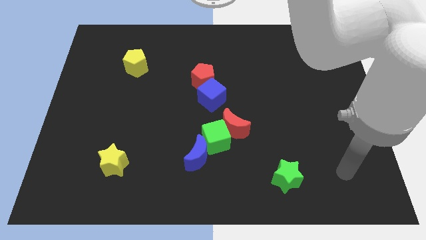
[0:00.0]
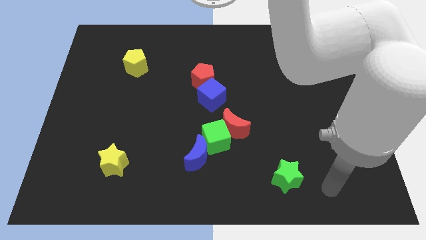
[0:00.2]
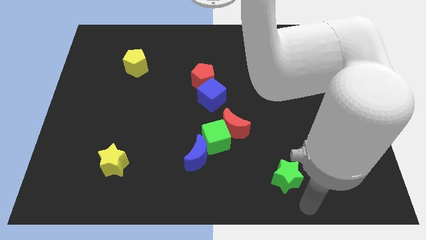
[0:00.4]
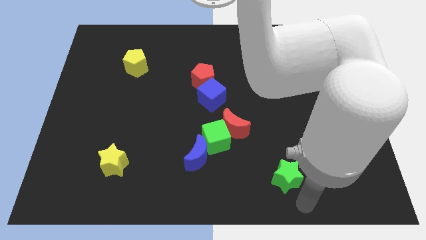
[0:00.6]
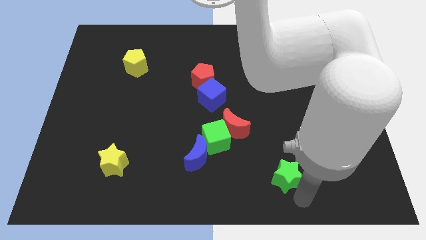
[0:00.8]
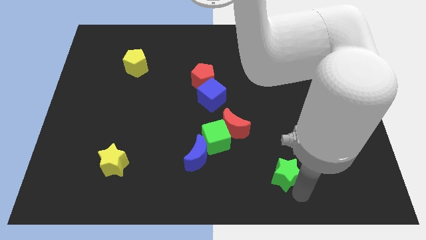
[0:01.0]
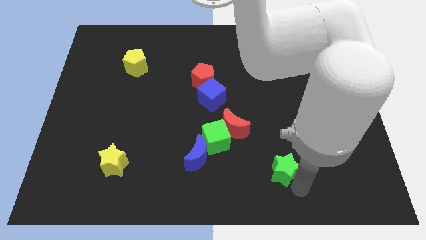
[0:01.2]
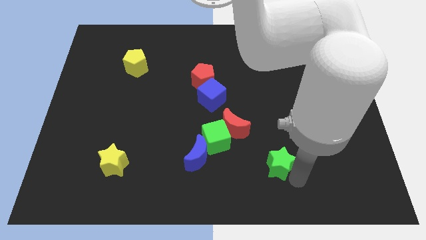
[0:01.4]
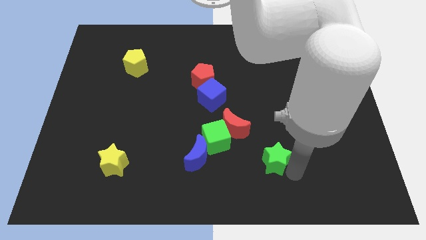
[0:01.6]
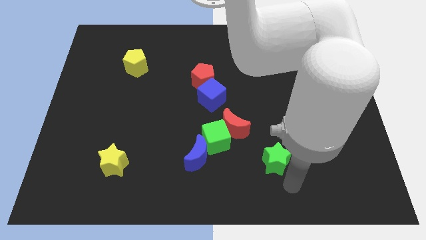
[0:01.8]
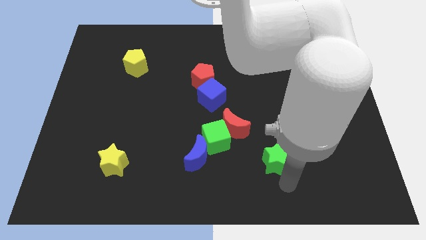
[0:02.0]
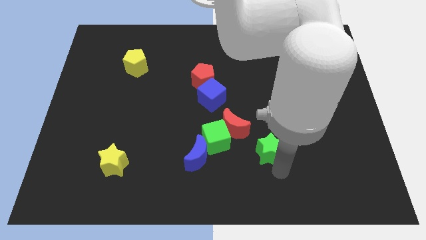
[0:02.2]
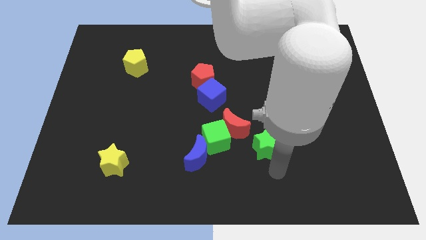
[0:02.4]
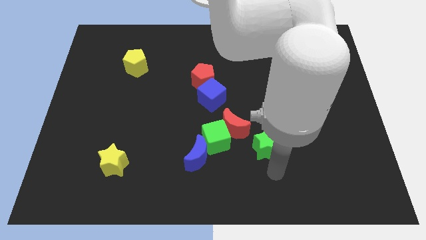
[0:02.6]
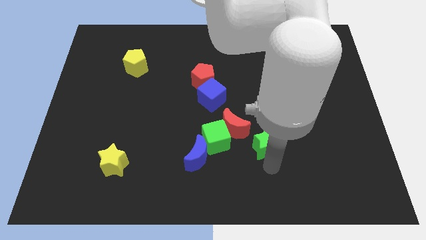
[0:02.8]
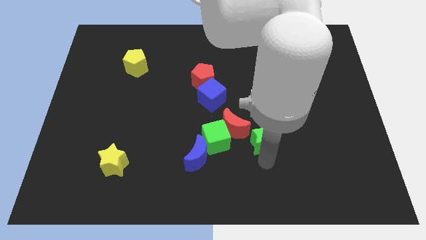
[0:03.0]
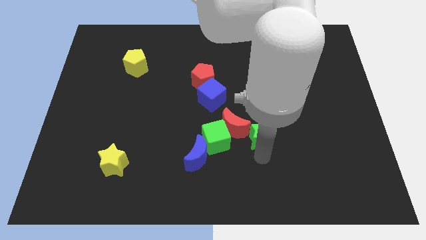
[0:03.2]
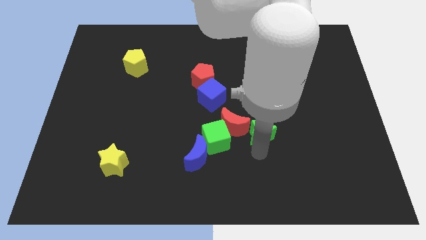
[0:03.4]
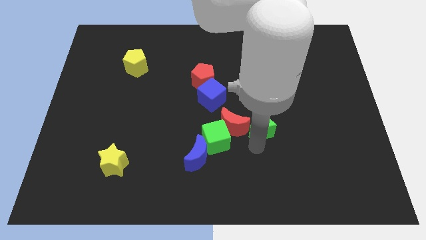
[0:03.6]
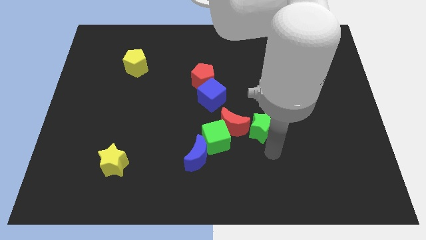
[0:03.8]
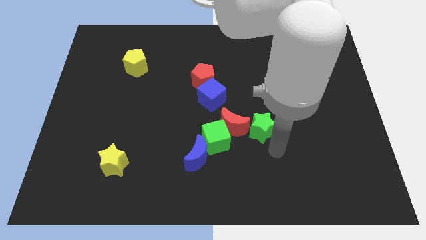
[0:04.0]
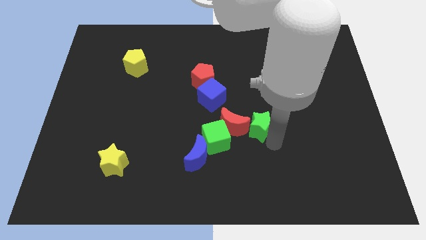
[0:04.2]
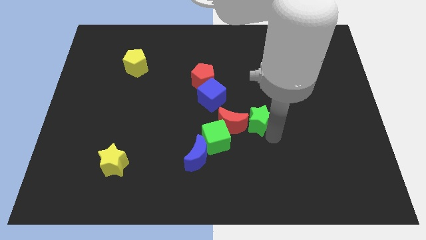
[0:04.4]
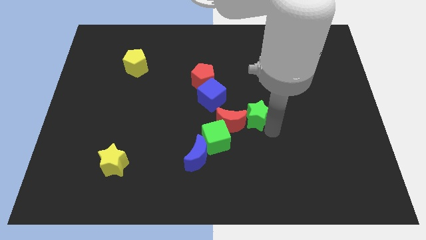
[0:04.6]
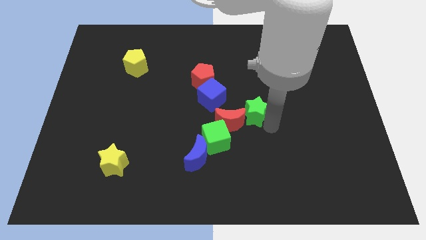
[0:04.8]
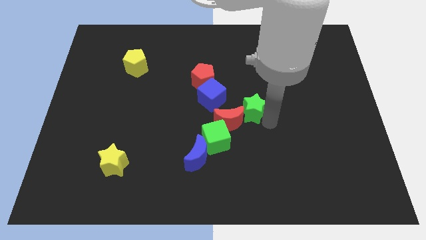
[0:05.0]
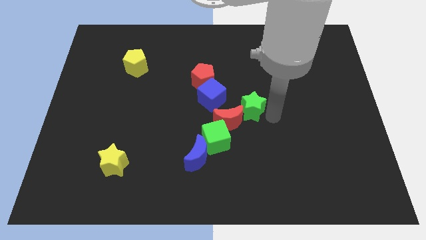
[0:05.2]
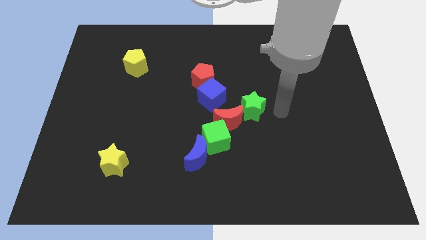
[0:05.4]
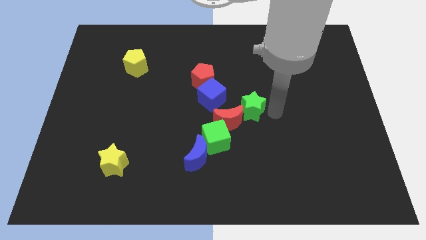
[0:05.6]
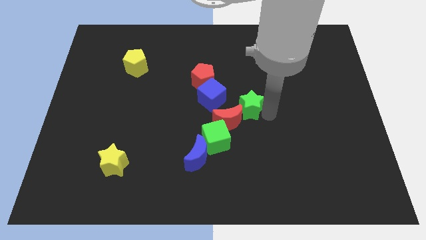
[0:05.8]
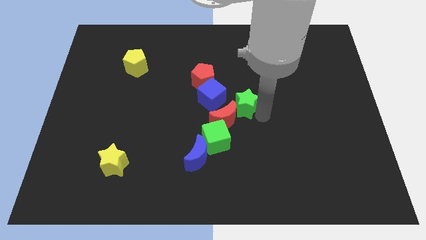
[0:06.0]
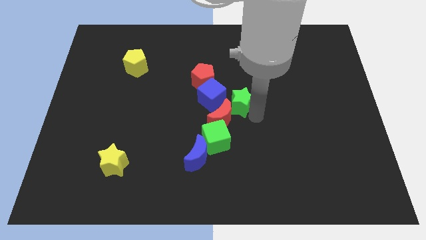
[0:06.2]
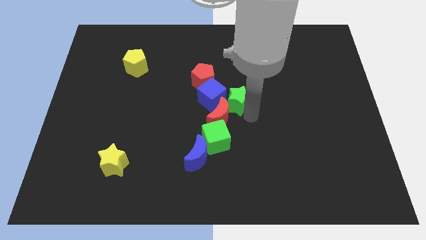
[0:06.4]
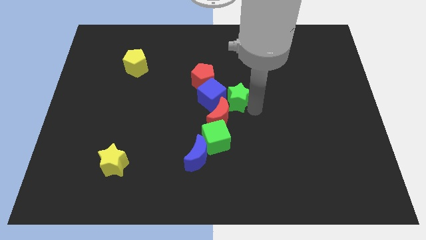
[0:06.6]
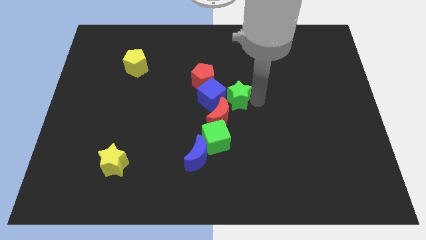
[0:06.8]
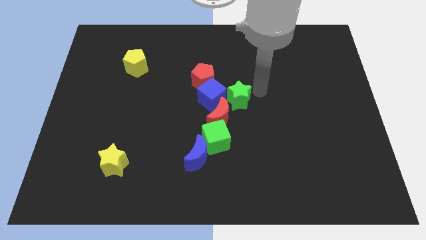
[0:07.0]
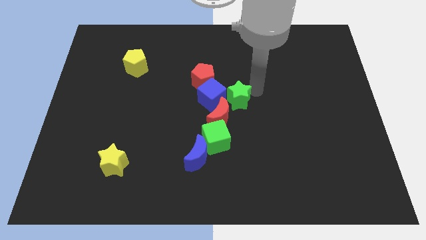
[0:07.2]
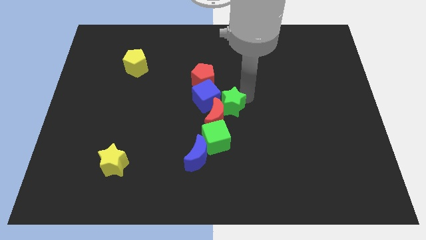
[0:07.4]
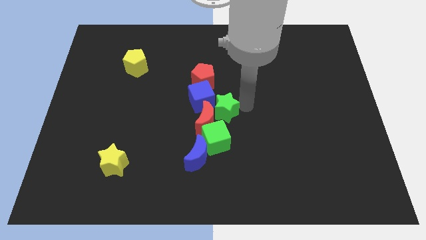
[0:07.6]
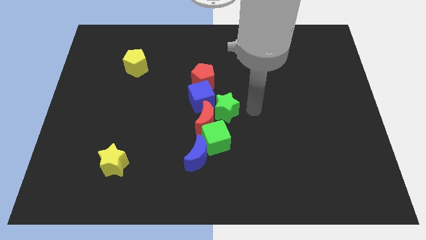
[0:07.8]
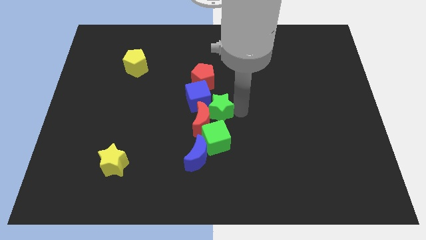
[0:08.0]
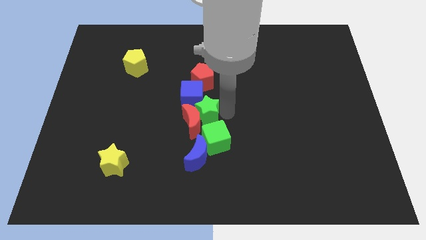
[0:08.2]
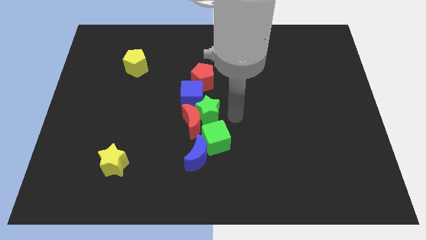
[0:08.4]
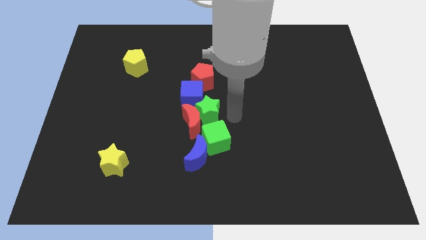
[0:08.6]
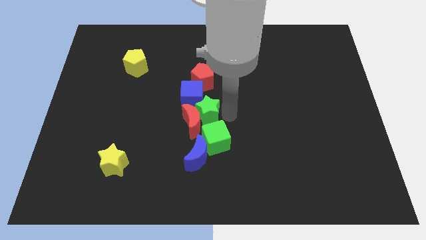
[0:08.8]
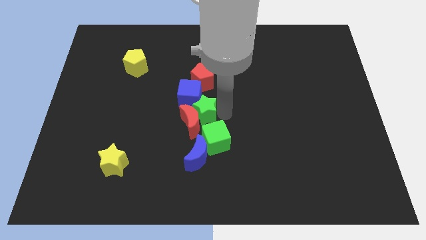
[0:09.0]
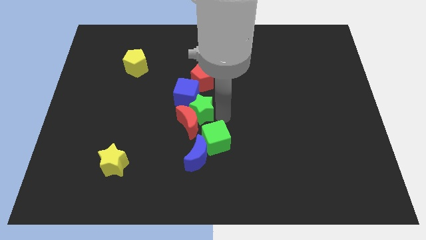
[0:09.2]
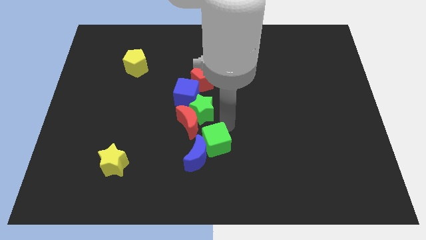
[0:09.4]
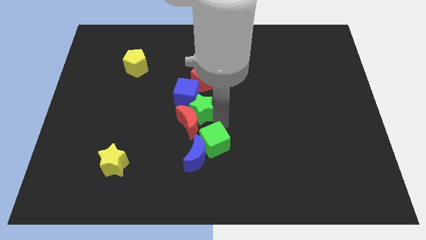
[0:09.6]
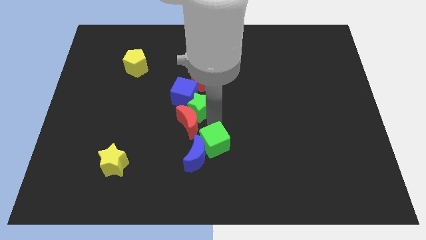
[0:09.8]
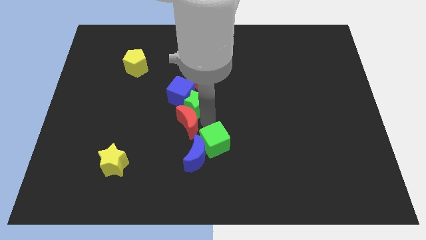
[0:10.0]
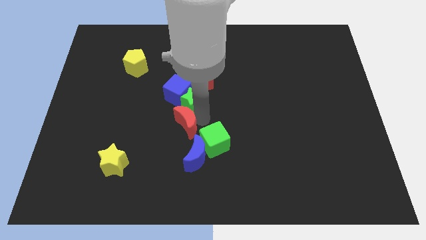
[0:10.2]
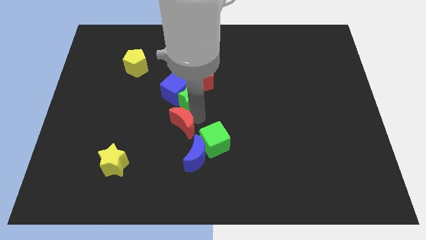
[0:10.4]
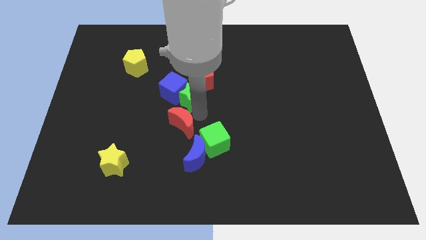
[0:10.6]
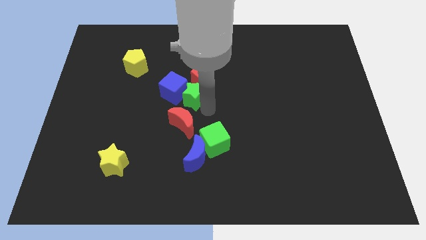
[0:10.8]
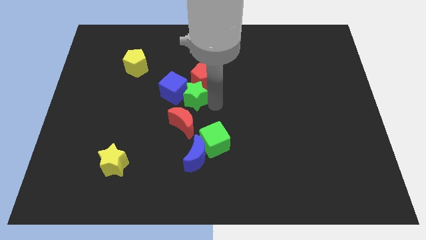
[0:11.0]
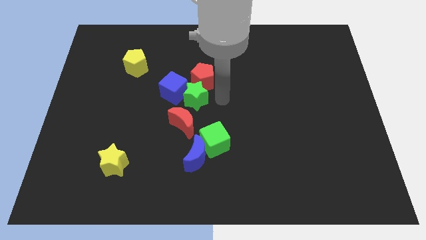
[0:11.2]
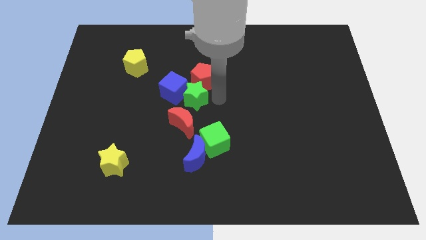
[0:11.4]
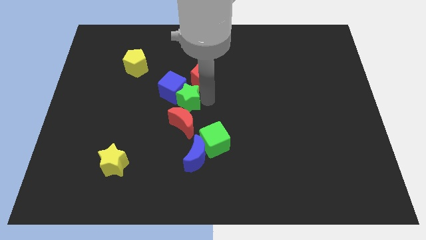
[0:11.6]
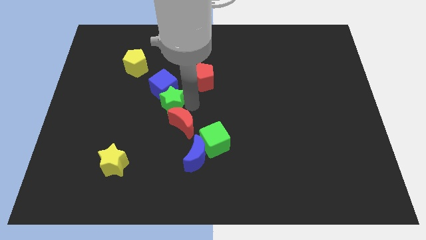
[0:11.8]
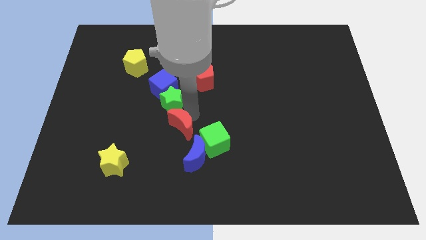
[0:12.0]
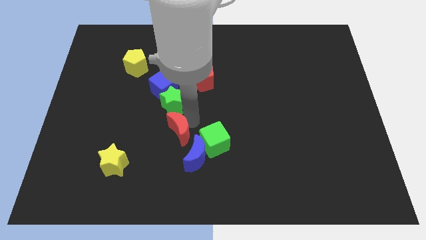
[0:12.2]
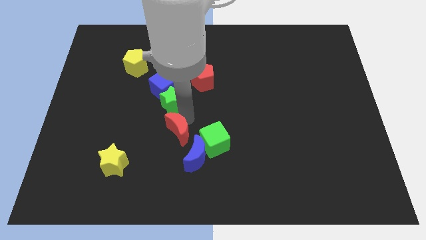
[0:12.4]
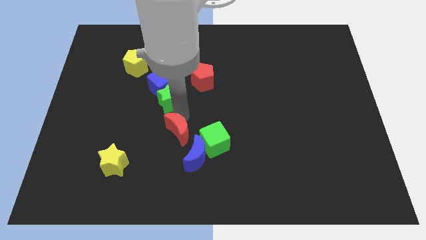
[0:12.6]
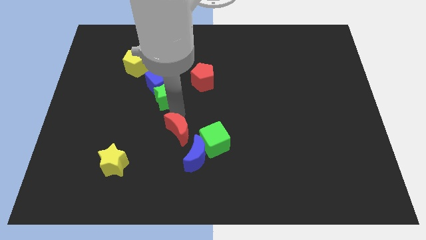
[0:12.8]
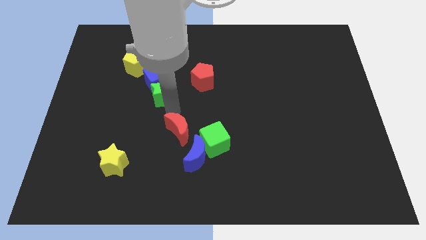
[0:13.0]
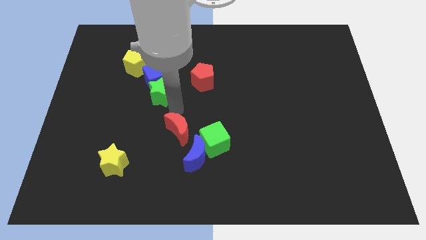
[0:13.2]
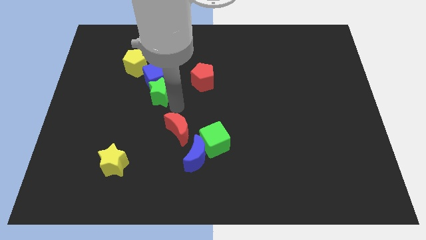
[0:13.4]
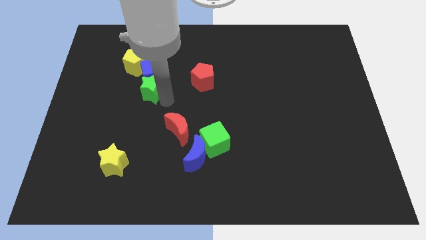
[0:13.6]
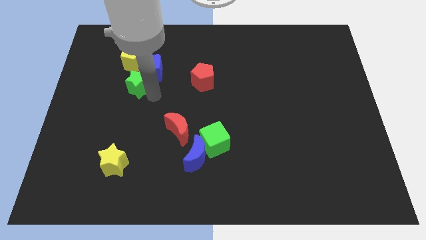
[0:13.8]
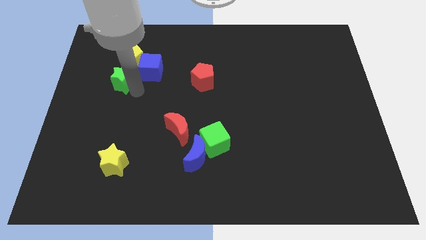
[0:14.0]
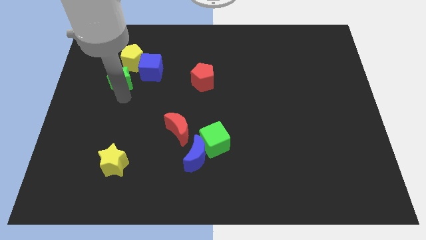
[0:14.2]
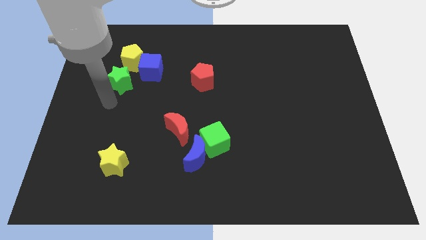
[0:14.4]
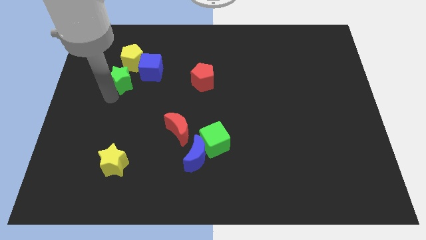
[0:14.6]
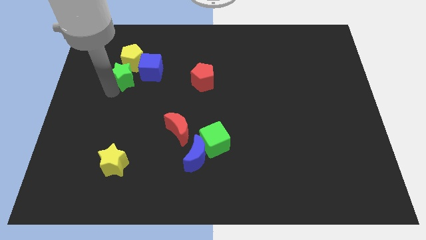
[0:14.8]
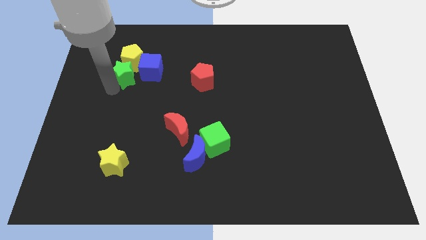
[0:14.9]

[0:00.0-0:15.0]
put the green star close to the yellow pentagon
